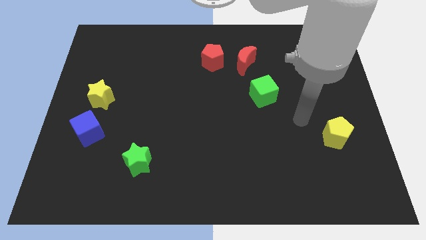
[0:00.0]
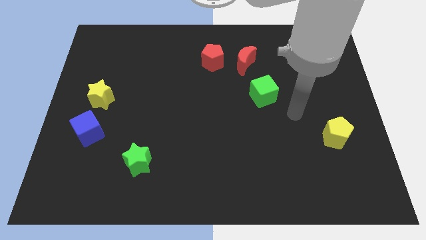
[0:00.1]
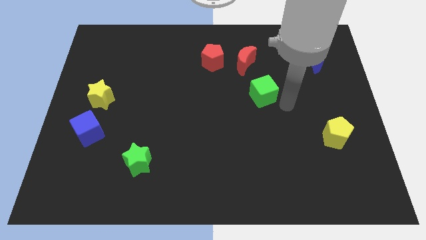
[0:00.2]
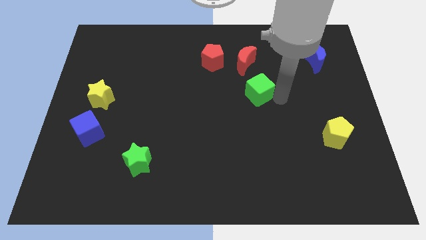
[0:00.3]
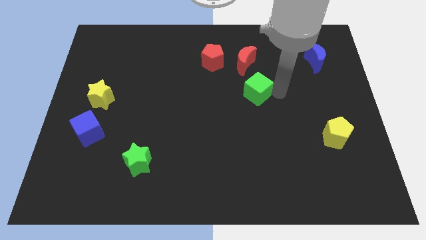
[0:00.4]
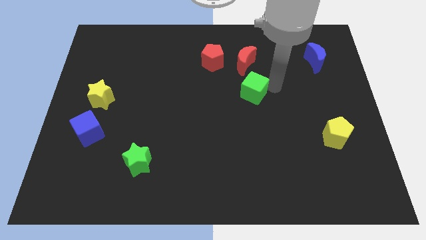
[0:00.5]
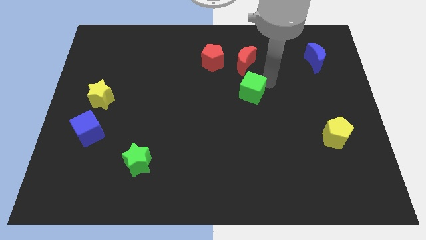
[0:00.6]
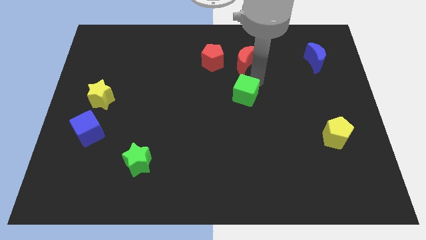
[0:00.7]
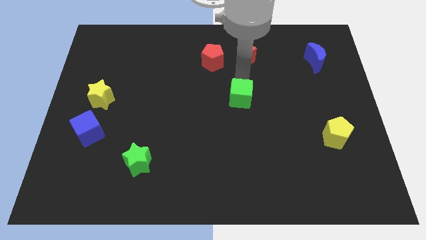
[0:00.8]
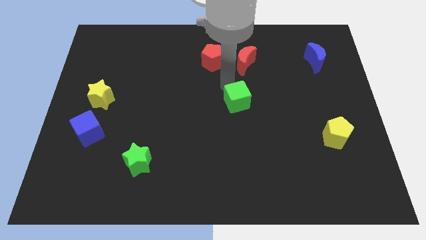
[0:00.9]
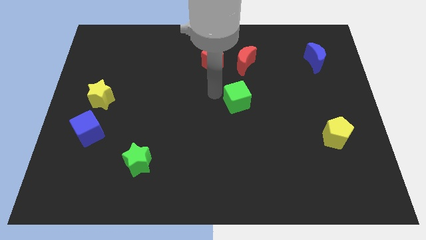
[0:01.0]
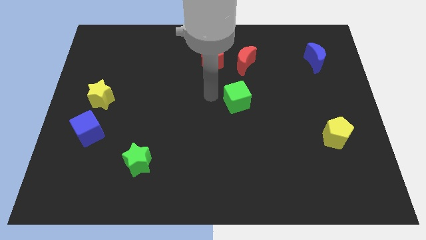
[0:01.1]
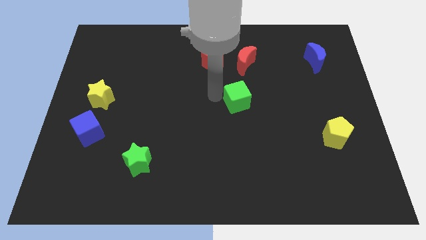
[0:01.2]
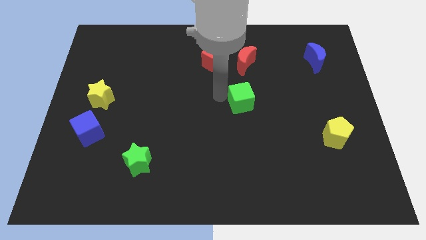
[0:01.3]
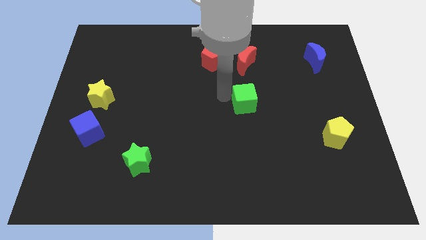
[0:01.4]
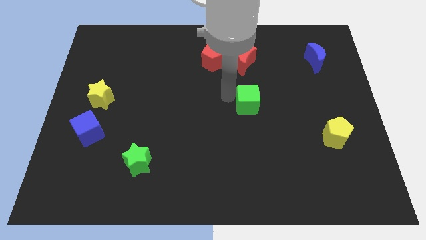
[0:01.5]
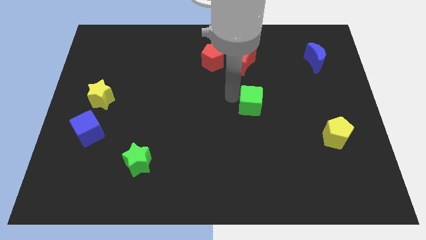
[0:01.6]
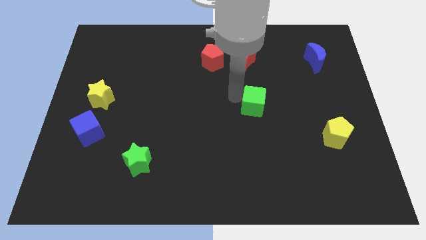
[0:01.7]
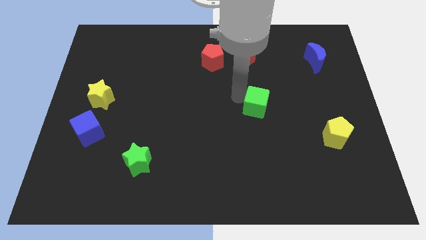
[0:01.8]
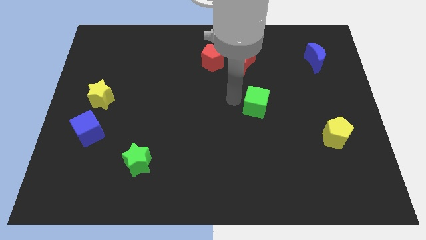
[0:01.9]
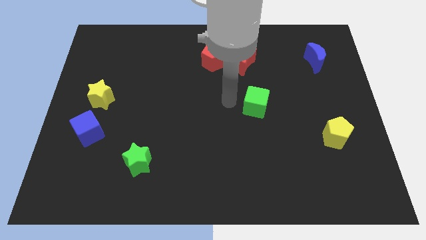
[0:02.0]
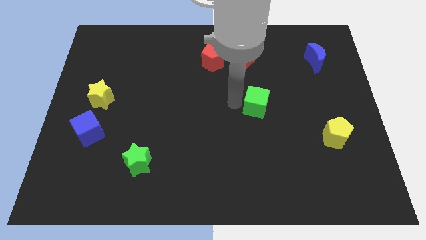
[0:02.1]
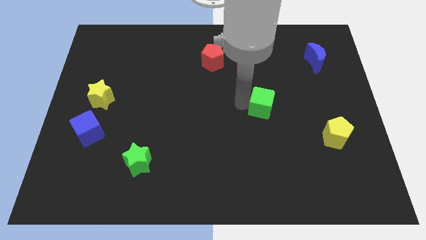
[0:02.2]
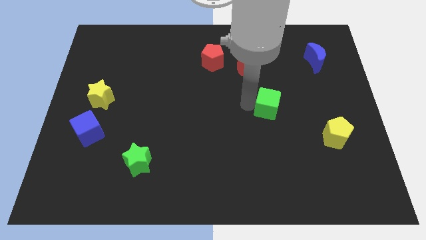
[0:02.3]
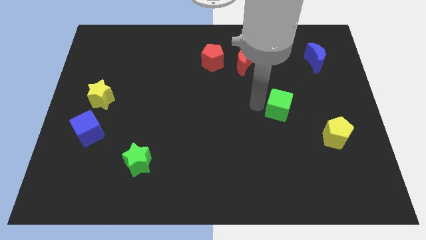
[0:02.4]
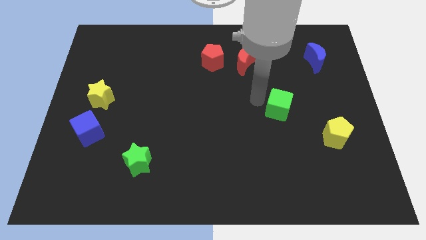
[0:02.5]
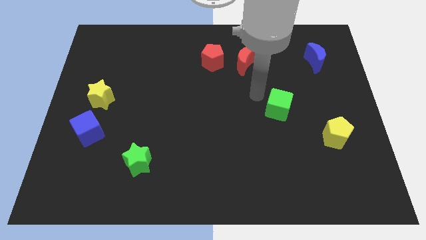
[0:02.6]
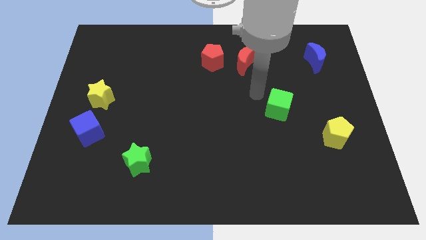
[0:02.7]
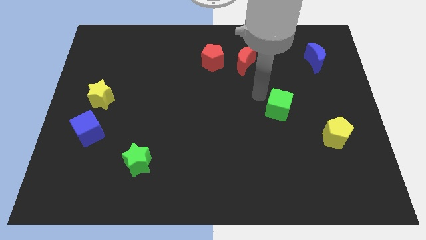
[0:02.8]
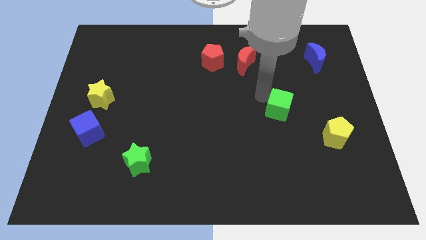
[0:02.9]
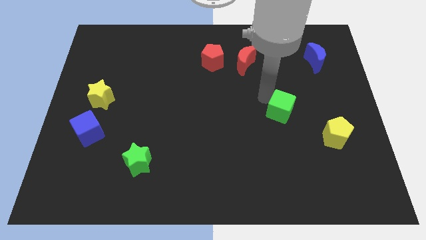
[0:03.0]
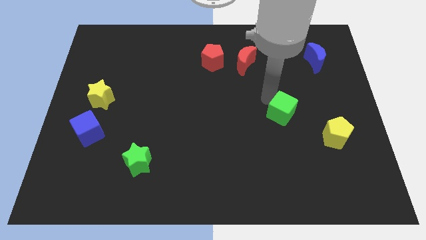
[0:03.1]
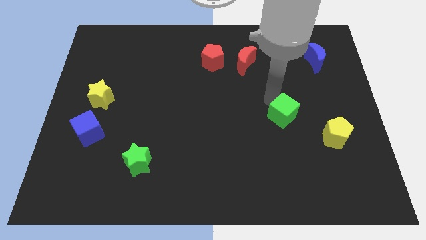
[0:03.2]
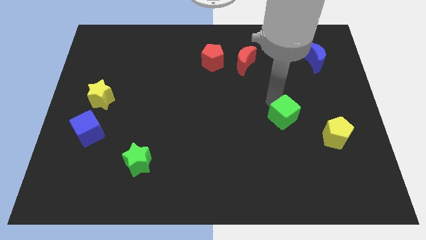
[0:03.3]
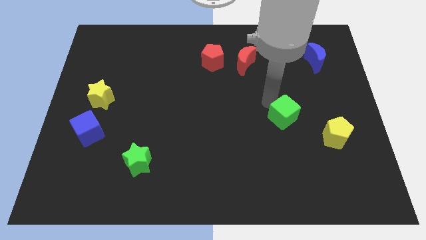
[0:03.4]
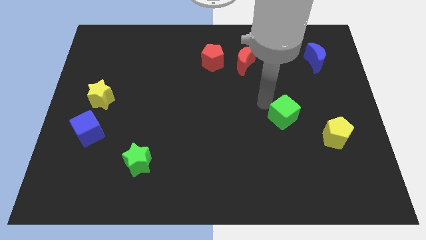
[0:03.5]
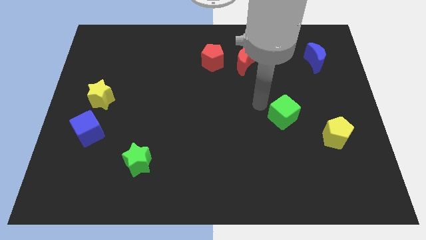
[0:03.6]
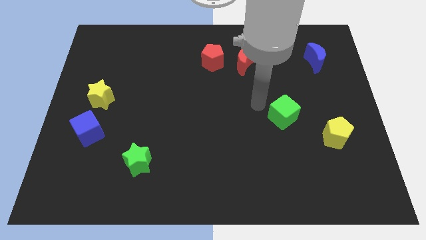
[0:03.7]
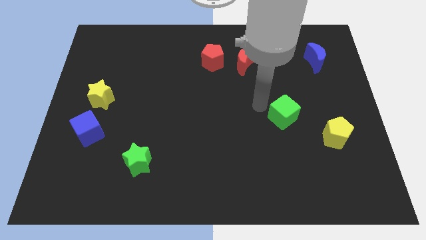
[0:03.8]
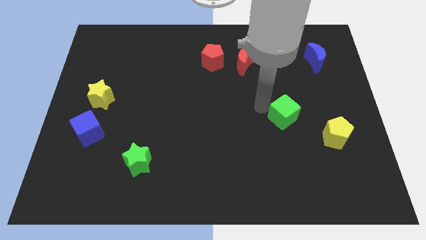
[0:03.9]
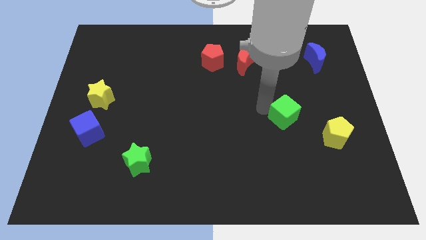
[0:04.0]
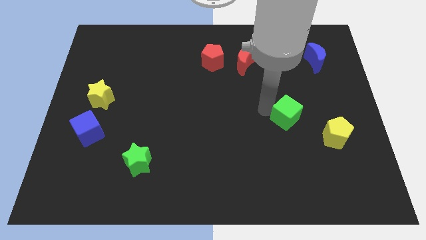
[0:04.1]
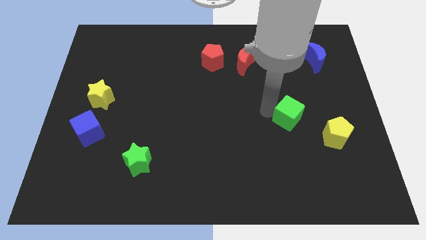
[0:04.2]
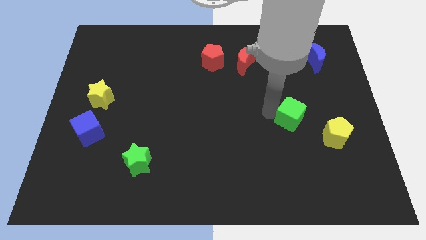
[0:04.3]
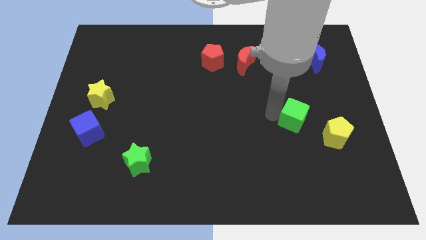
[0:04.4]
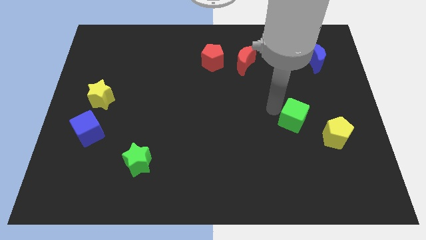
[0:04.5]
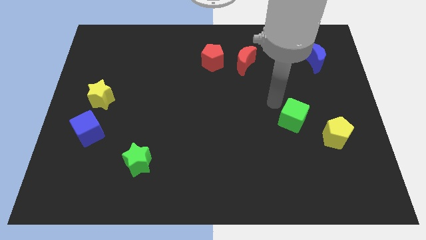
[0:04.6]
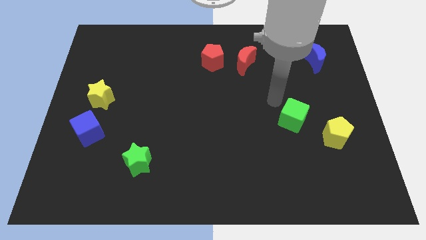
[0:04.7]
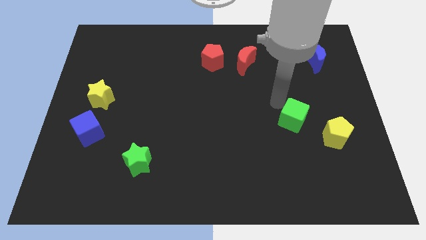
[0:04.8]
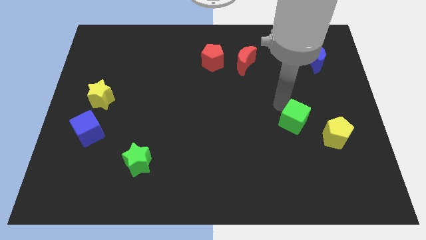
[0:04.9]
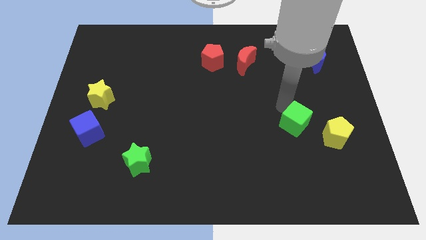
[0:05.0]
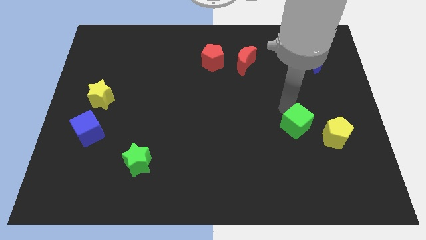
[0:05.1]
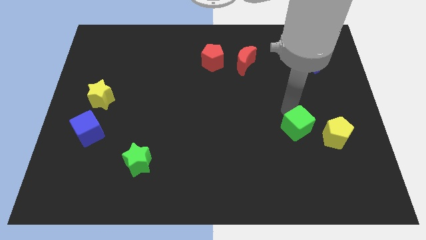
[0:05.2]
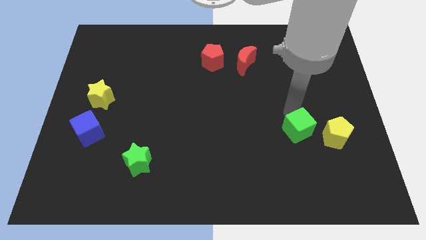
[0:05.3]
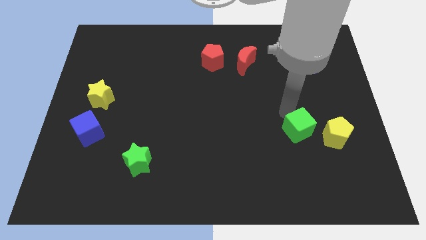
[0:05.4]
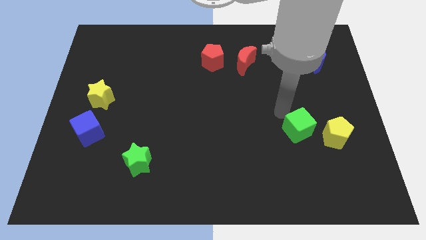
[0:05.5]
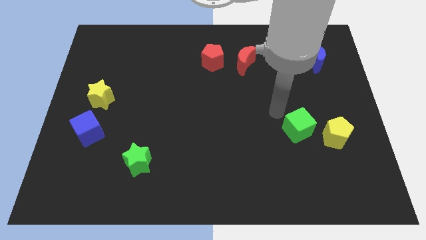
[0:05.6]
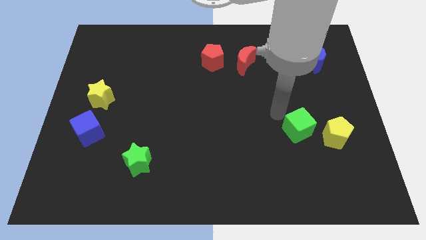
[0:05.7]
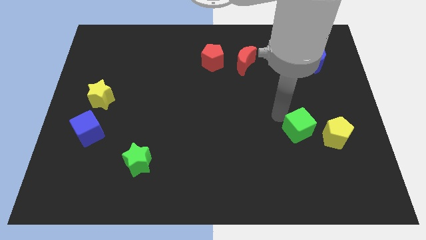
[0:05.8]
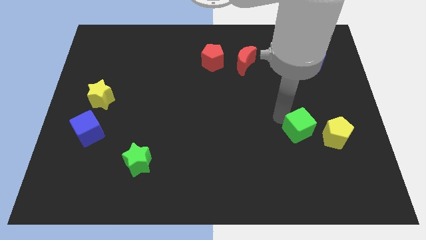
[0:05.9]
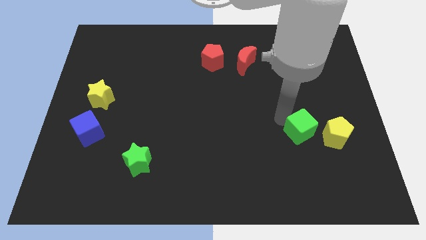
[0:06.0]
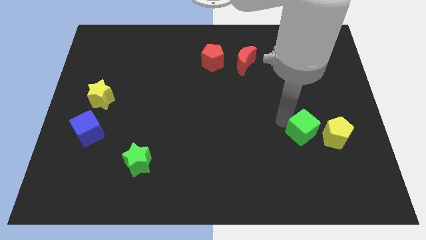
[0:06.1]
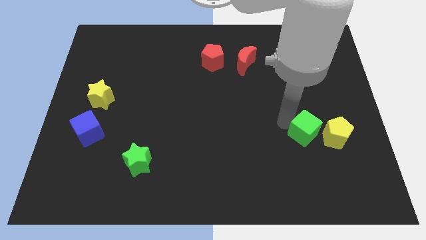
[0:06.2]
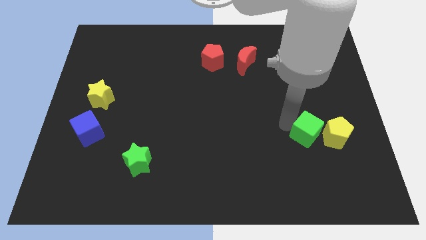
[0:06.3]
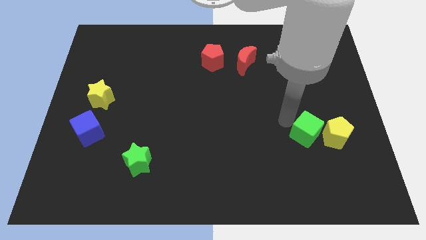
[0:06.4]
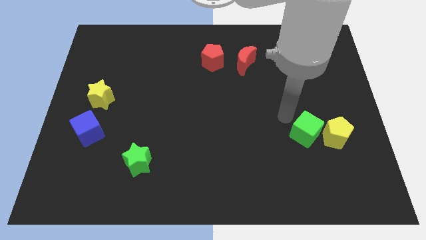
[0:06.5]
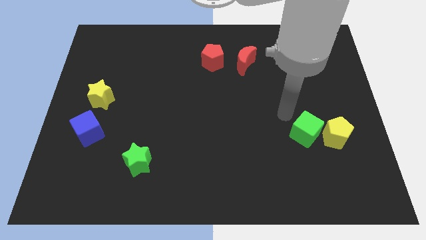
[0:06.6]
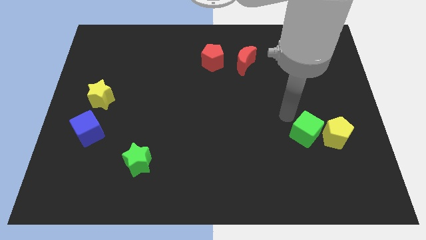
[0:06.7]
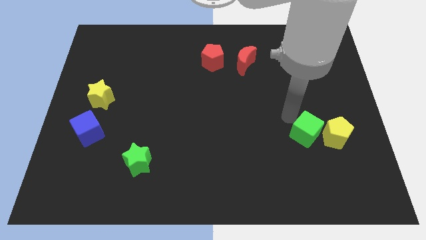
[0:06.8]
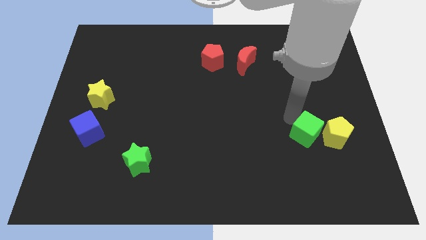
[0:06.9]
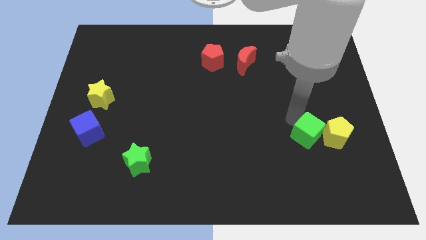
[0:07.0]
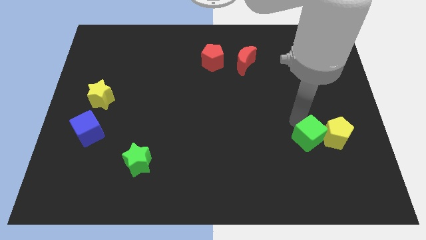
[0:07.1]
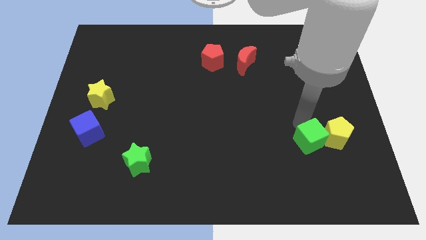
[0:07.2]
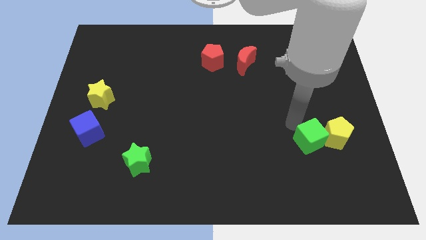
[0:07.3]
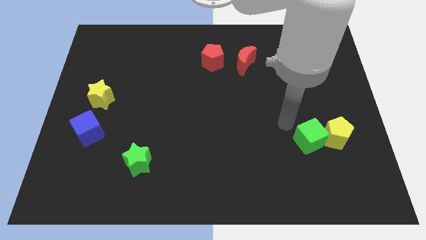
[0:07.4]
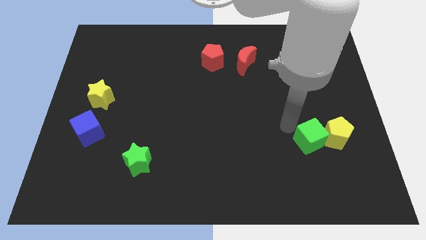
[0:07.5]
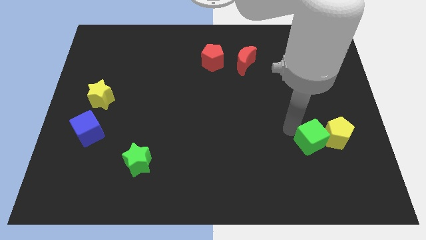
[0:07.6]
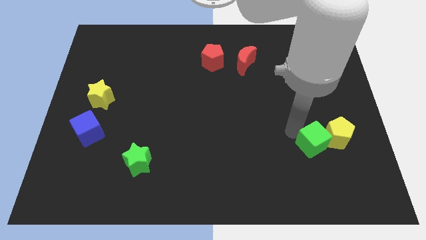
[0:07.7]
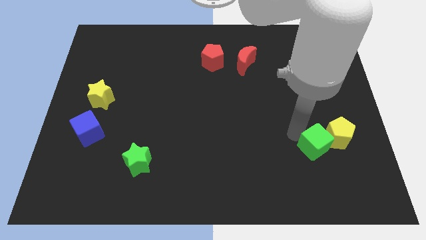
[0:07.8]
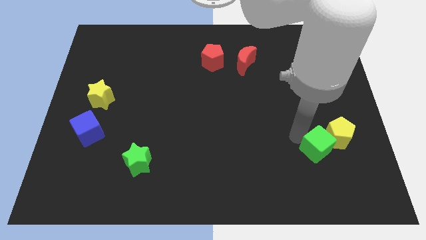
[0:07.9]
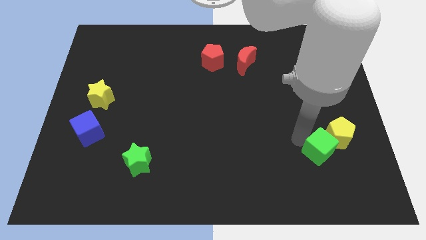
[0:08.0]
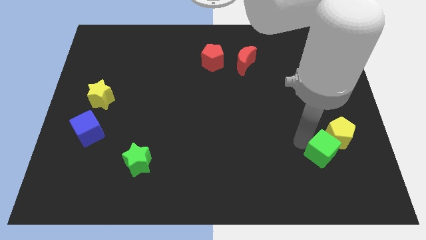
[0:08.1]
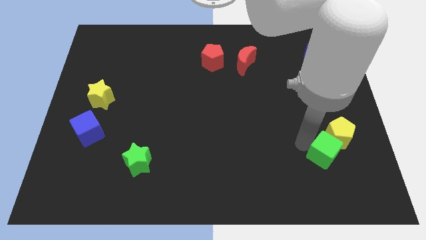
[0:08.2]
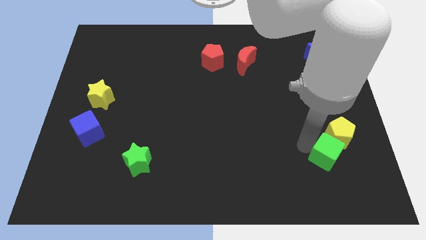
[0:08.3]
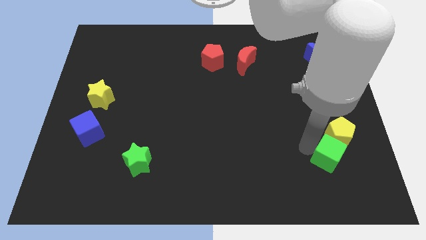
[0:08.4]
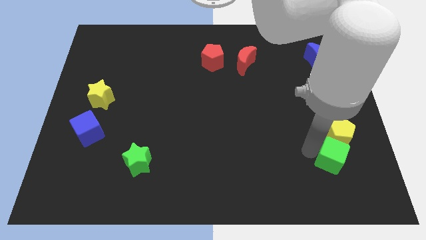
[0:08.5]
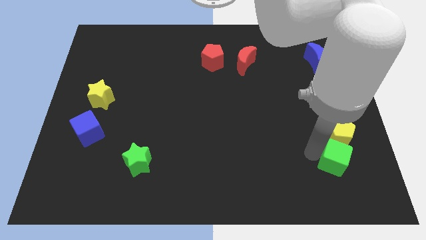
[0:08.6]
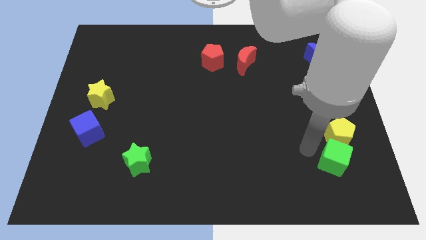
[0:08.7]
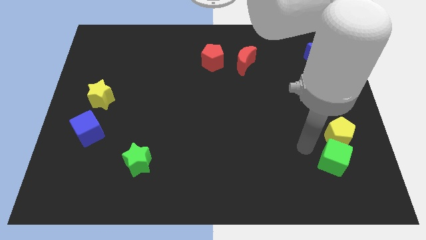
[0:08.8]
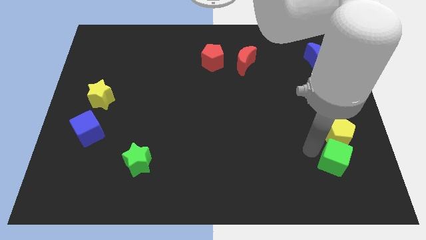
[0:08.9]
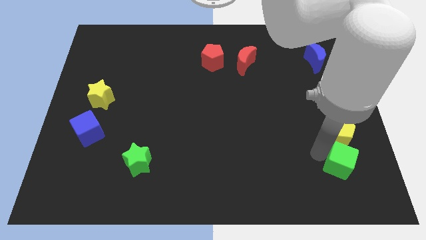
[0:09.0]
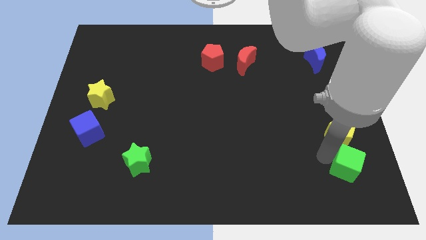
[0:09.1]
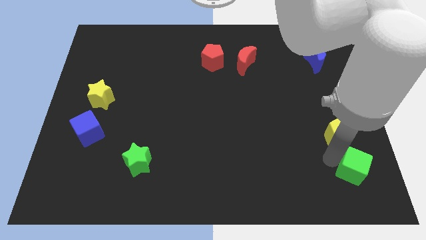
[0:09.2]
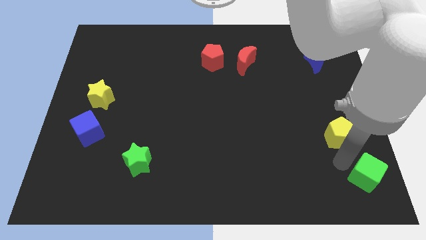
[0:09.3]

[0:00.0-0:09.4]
put the green cube to the lower right corner
